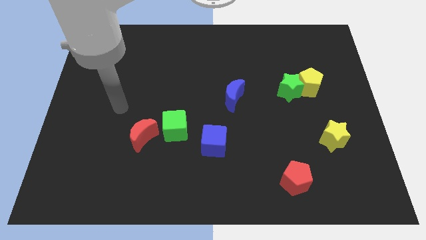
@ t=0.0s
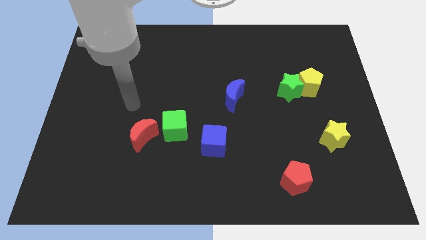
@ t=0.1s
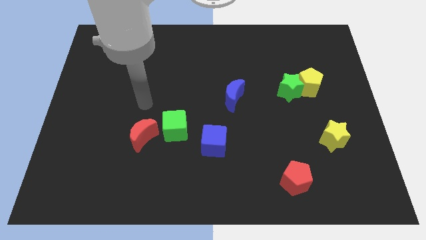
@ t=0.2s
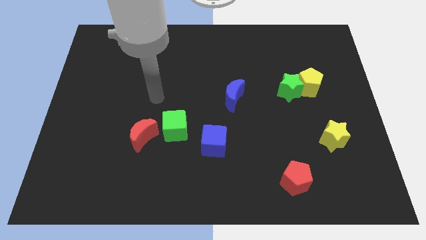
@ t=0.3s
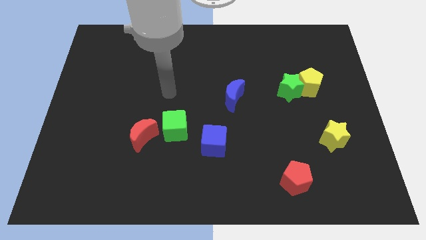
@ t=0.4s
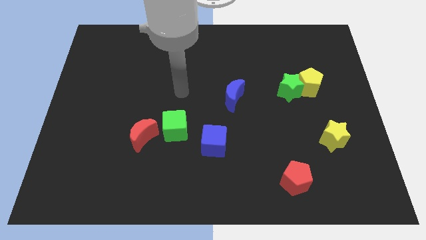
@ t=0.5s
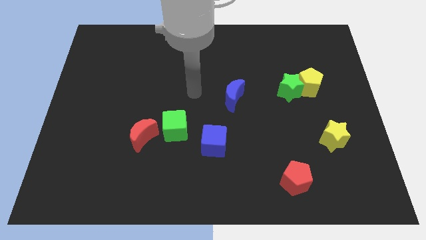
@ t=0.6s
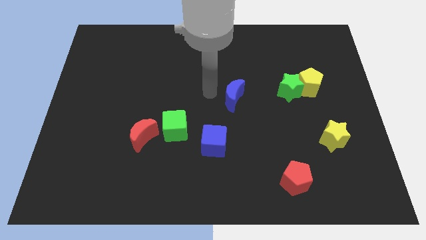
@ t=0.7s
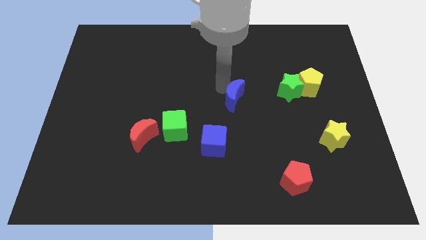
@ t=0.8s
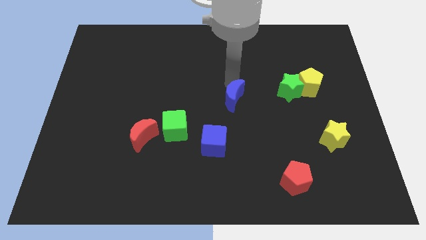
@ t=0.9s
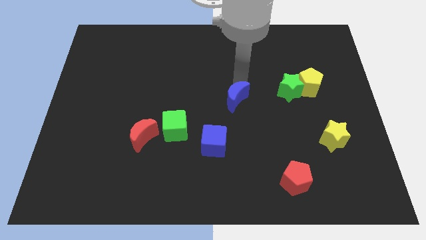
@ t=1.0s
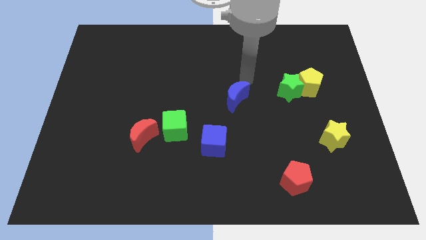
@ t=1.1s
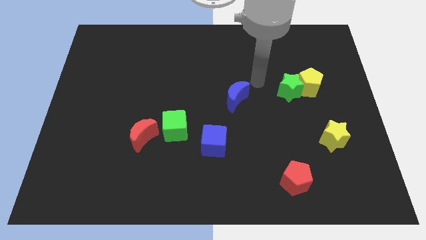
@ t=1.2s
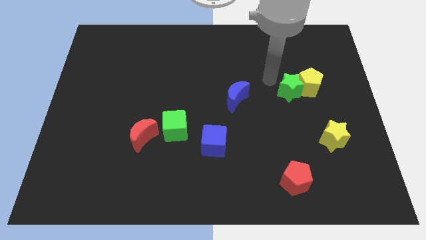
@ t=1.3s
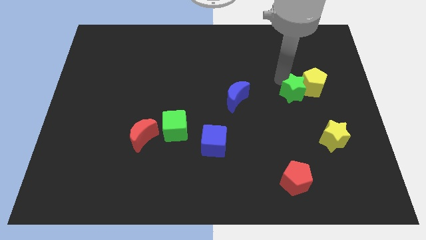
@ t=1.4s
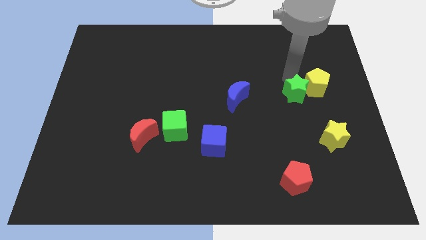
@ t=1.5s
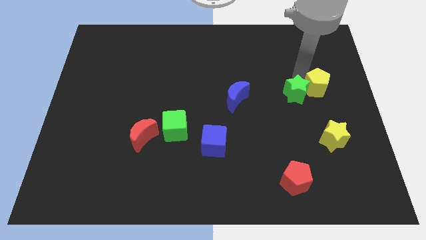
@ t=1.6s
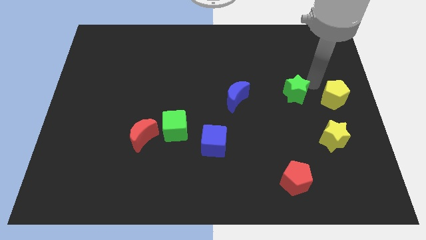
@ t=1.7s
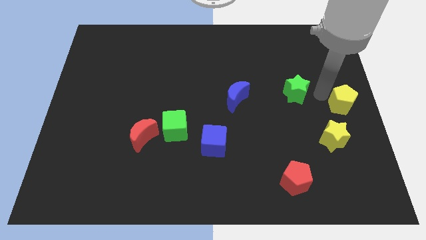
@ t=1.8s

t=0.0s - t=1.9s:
move the green star away from the yellow pentagon

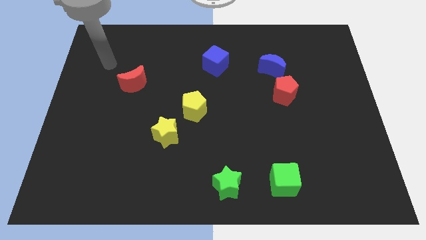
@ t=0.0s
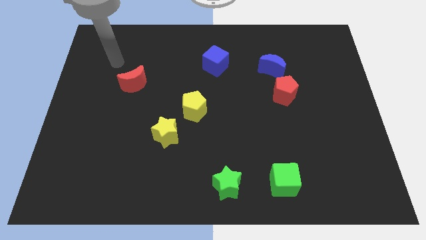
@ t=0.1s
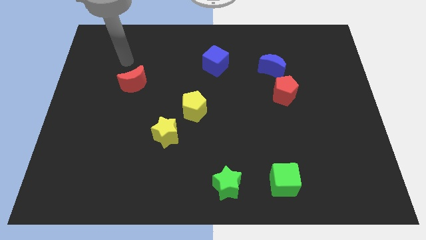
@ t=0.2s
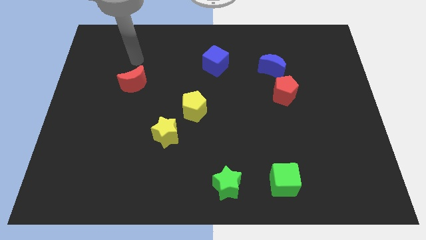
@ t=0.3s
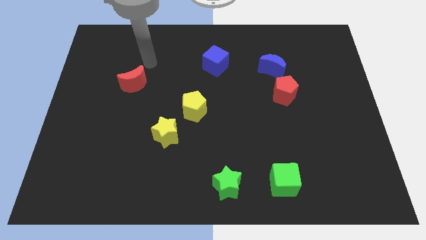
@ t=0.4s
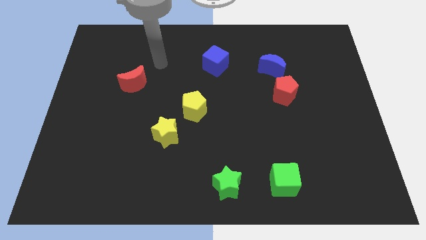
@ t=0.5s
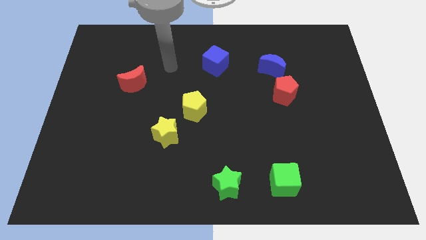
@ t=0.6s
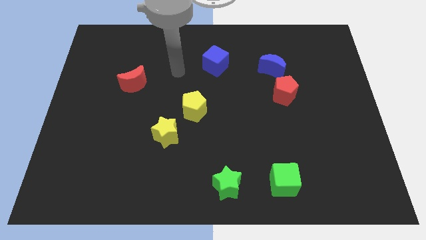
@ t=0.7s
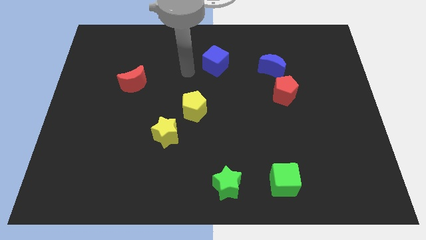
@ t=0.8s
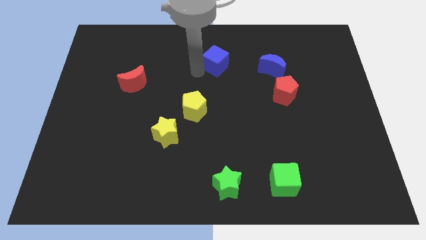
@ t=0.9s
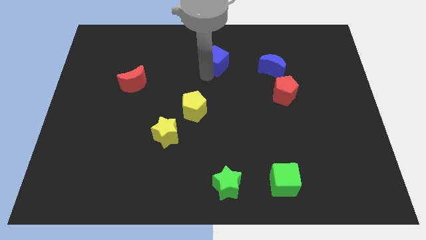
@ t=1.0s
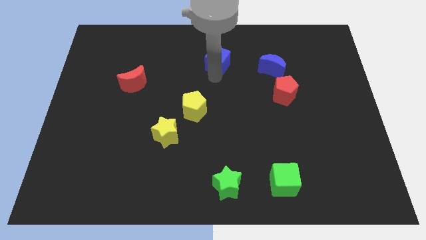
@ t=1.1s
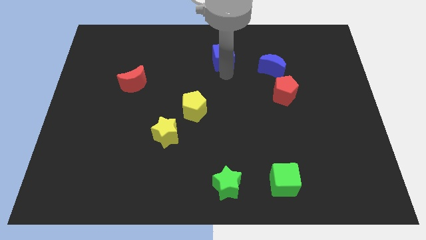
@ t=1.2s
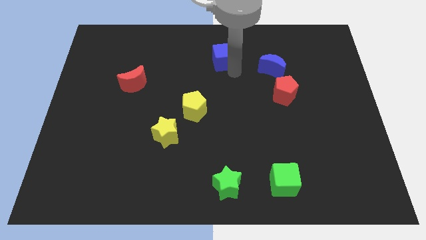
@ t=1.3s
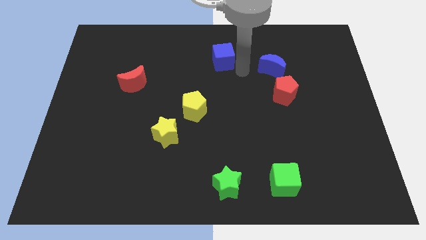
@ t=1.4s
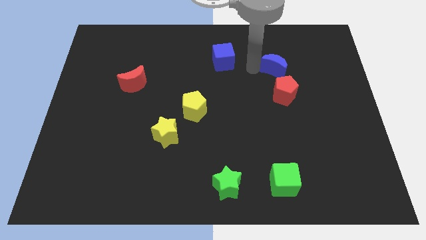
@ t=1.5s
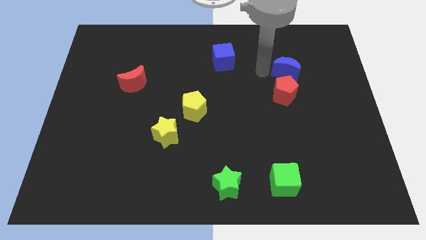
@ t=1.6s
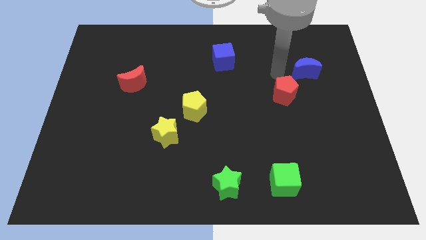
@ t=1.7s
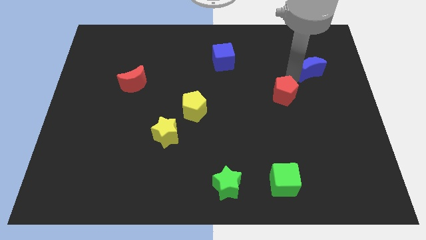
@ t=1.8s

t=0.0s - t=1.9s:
separate the red pentagon from the blue moon

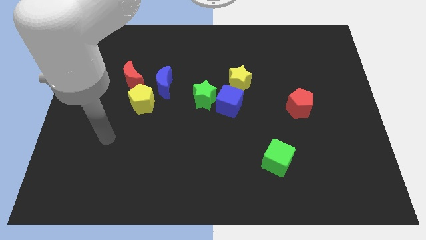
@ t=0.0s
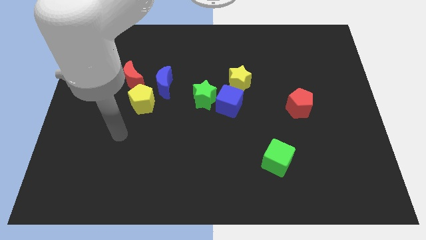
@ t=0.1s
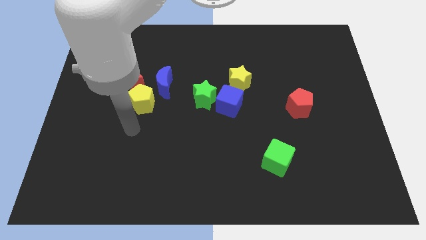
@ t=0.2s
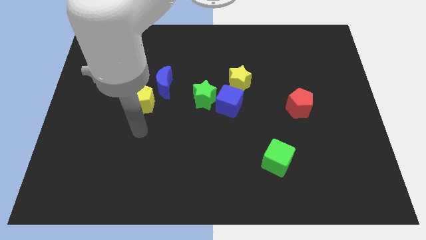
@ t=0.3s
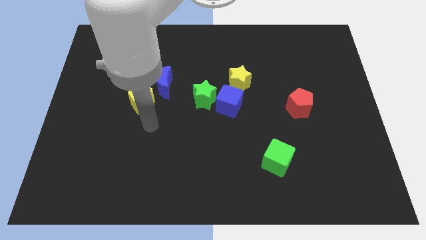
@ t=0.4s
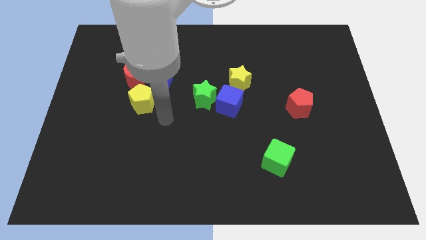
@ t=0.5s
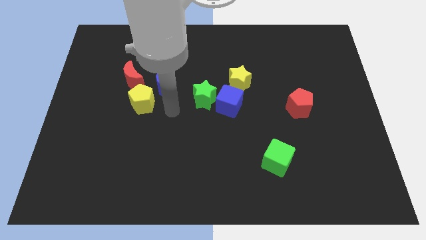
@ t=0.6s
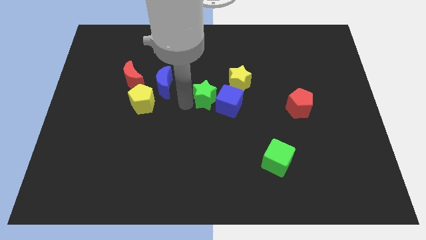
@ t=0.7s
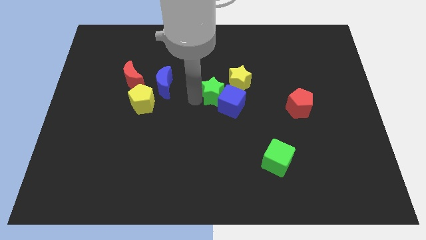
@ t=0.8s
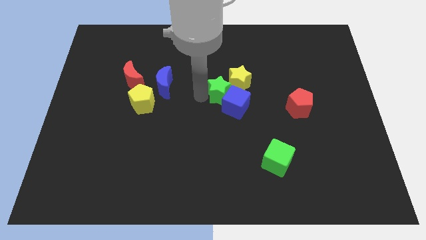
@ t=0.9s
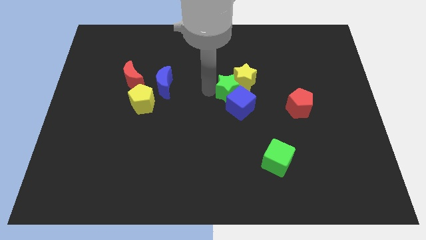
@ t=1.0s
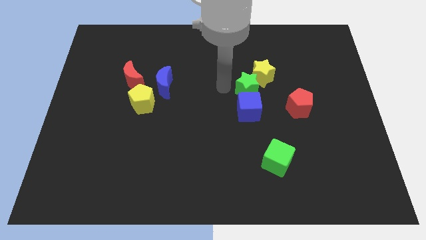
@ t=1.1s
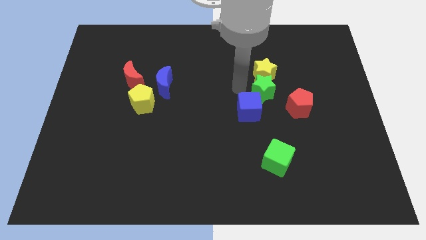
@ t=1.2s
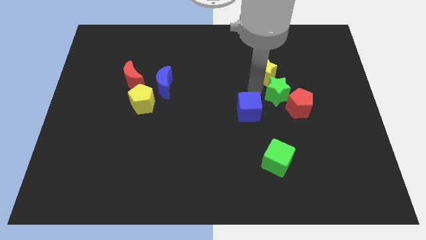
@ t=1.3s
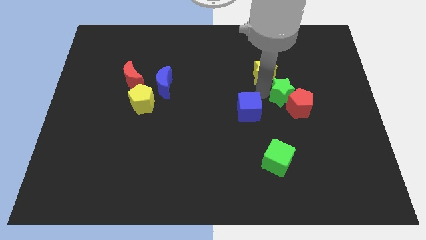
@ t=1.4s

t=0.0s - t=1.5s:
pull the blue cube apart from the green star and yellow star

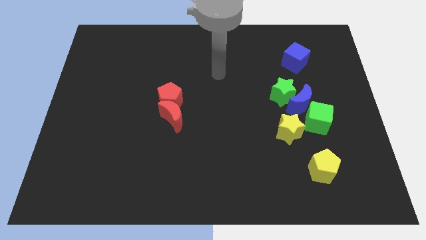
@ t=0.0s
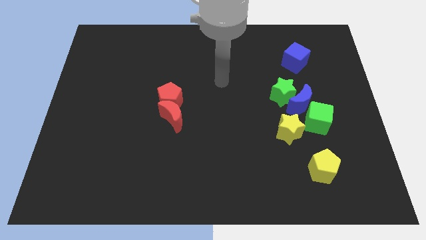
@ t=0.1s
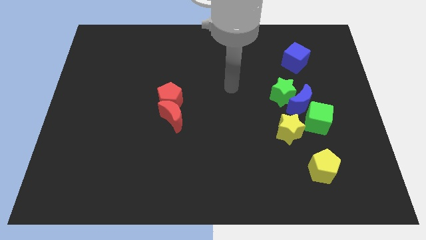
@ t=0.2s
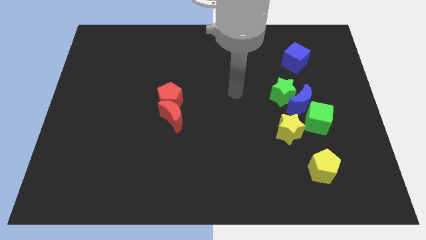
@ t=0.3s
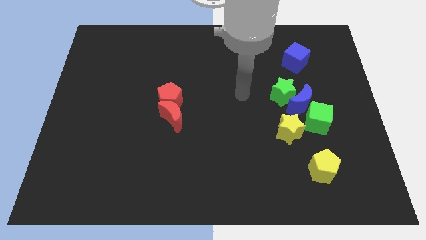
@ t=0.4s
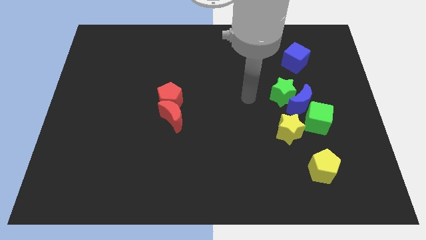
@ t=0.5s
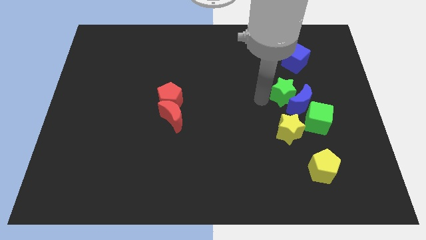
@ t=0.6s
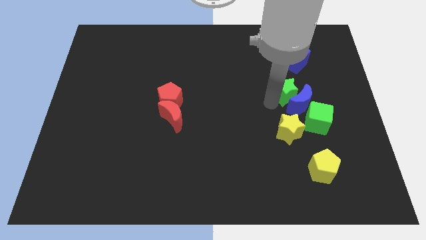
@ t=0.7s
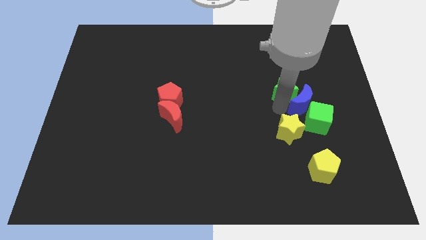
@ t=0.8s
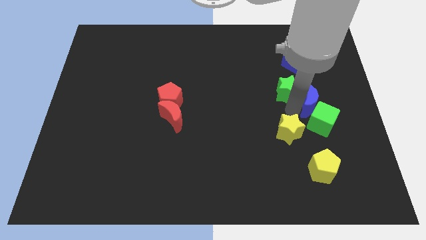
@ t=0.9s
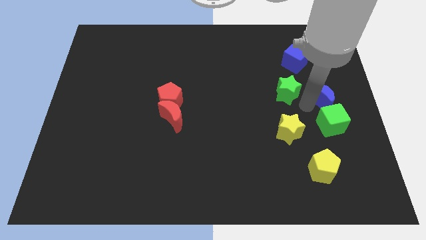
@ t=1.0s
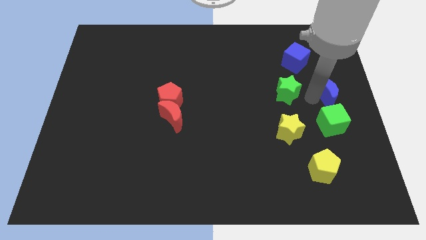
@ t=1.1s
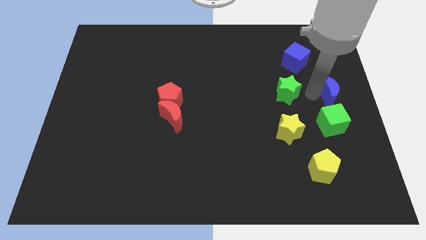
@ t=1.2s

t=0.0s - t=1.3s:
separate the green star from the blue moon

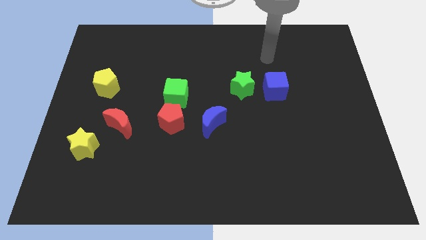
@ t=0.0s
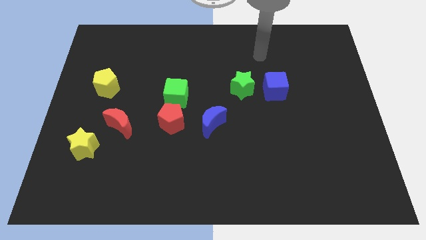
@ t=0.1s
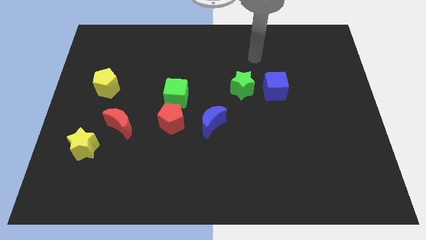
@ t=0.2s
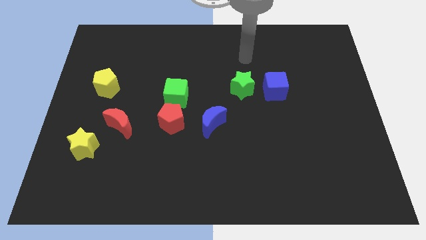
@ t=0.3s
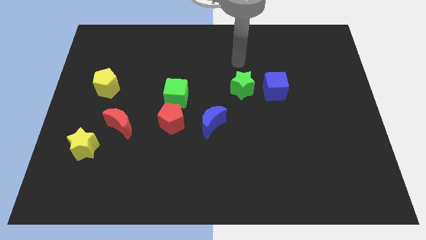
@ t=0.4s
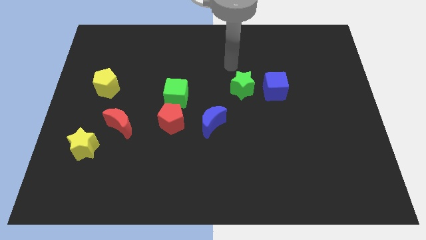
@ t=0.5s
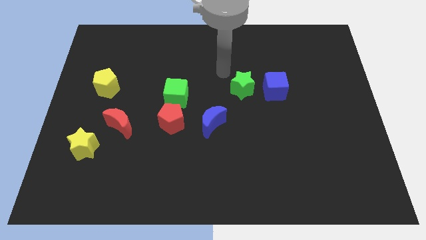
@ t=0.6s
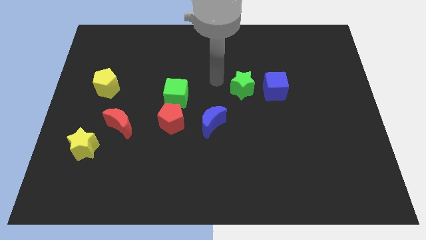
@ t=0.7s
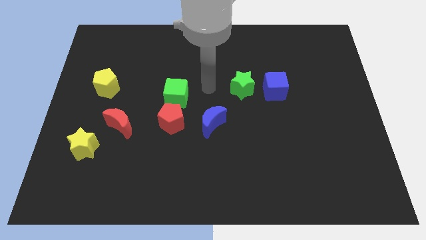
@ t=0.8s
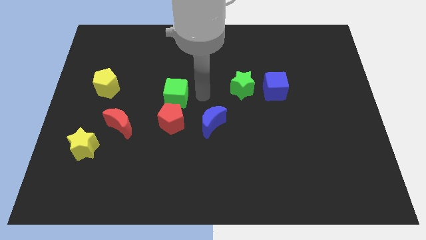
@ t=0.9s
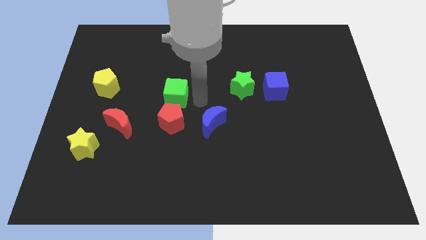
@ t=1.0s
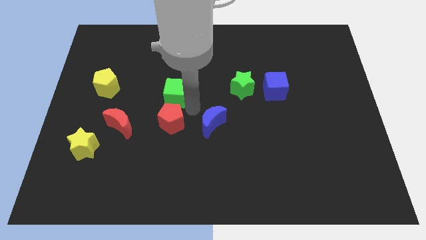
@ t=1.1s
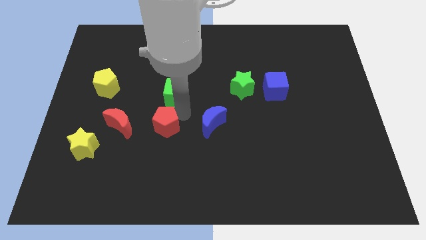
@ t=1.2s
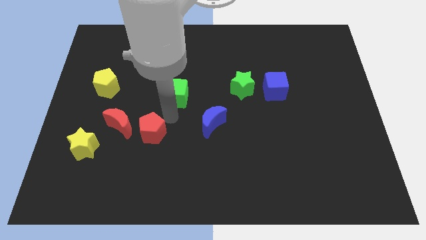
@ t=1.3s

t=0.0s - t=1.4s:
separate the green cube from the red pentagon

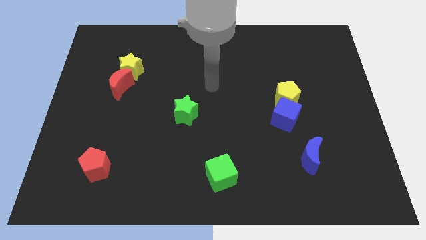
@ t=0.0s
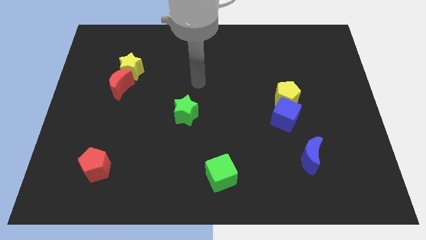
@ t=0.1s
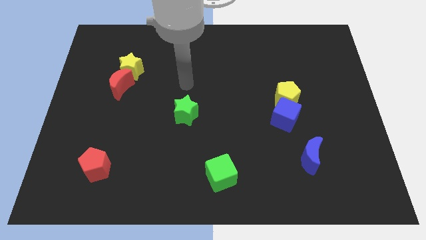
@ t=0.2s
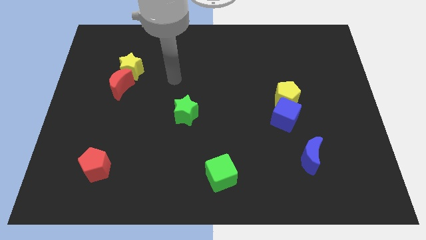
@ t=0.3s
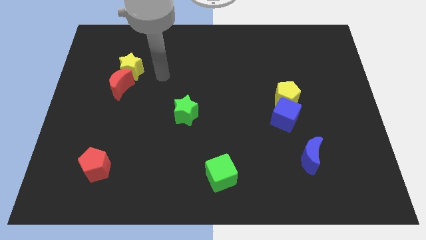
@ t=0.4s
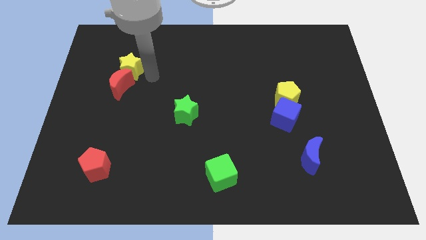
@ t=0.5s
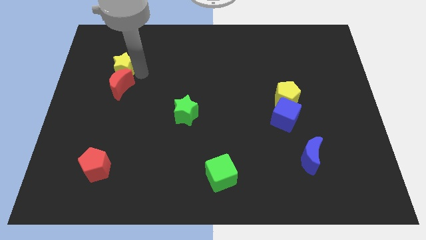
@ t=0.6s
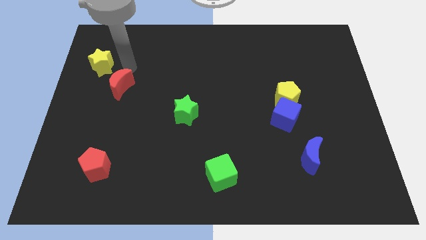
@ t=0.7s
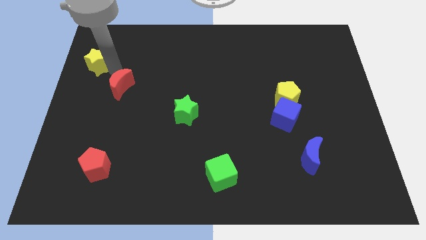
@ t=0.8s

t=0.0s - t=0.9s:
pull the red moon apart from the yellow star

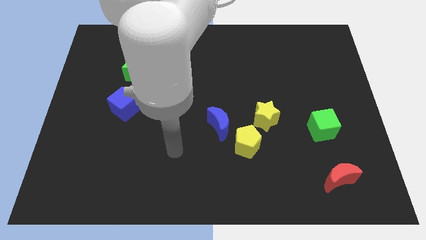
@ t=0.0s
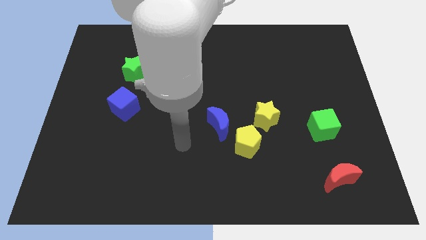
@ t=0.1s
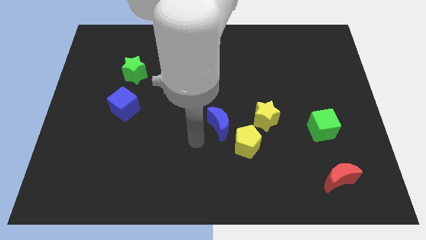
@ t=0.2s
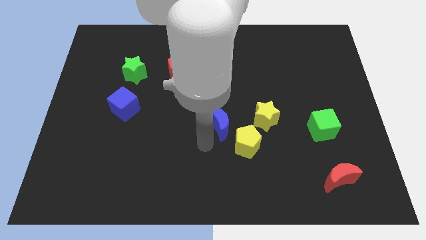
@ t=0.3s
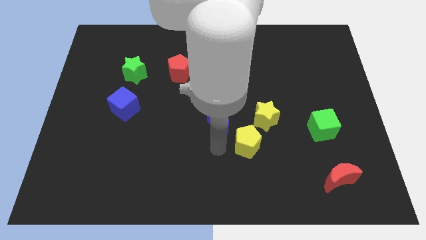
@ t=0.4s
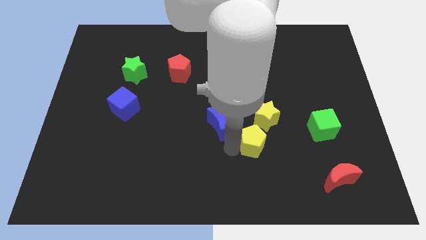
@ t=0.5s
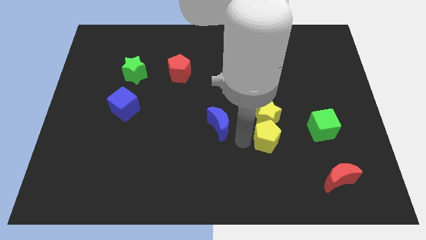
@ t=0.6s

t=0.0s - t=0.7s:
move the blue moon away from the yellow pentagon
